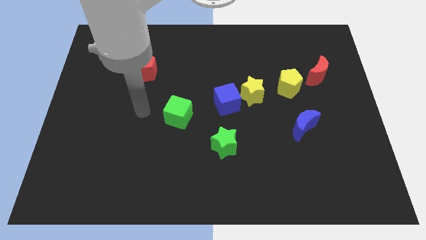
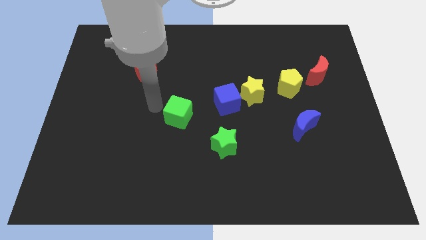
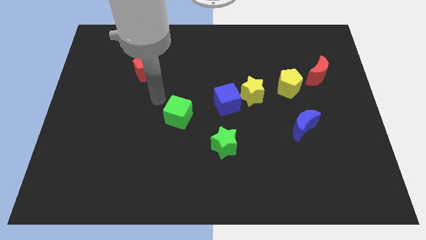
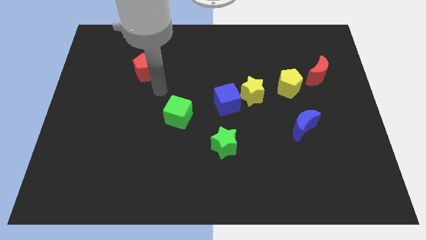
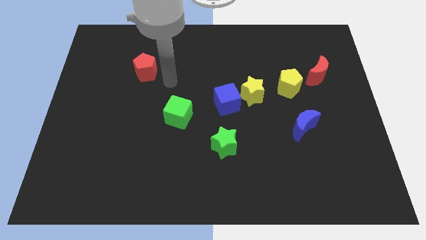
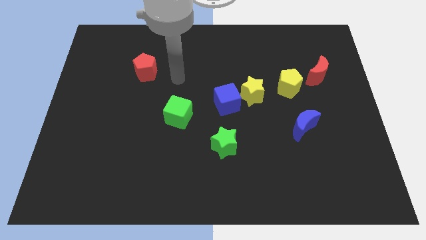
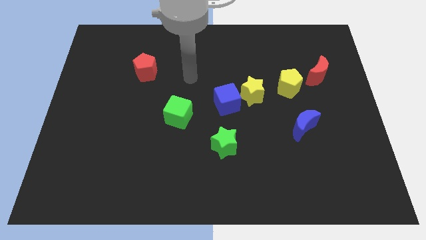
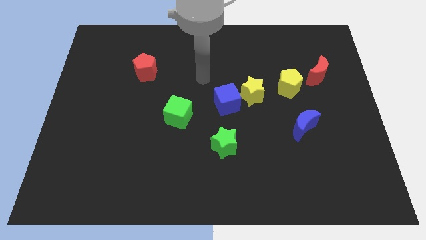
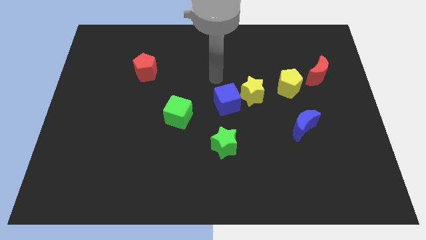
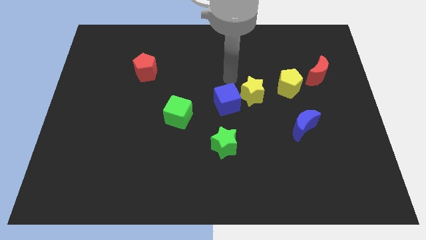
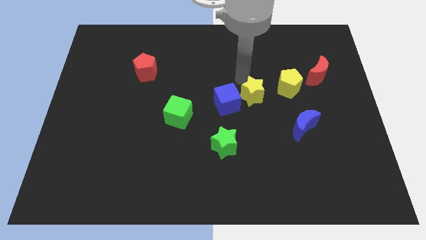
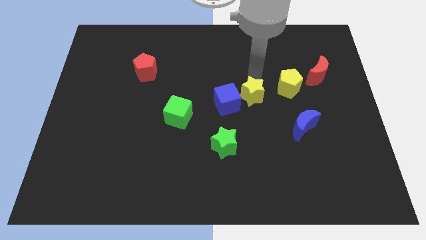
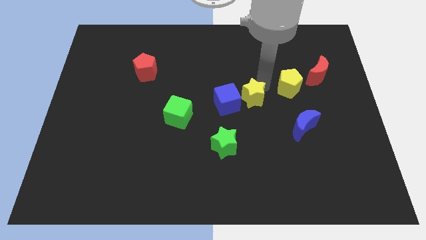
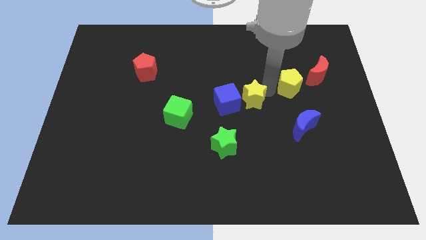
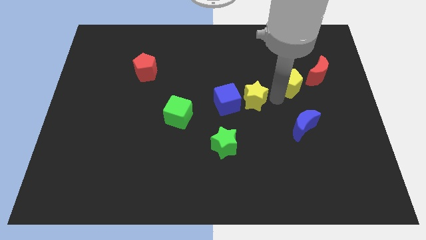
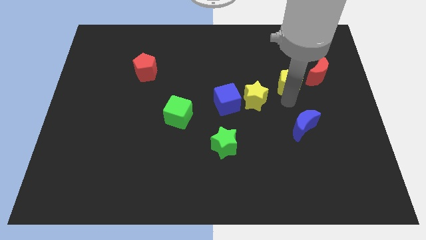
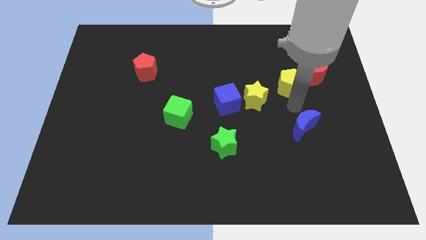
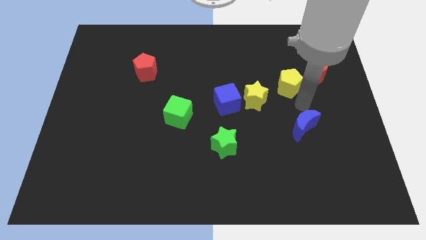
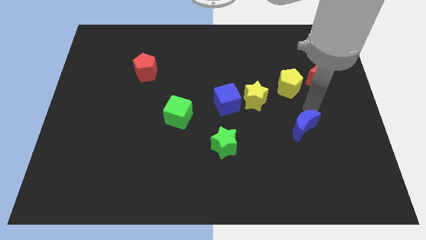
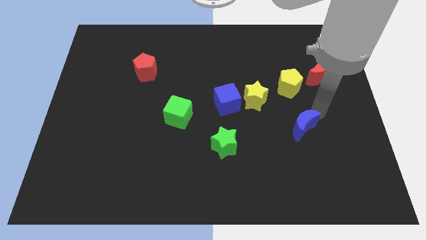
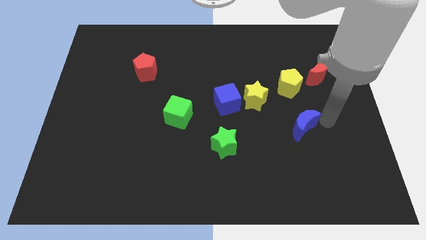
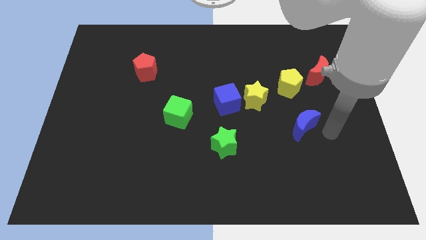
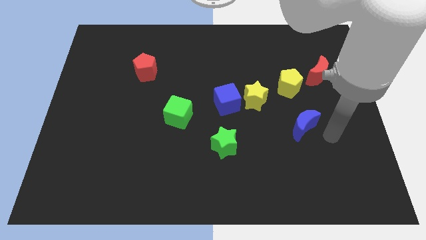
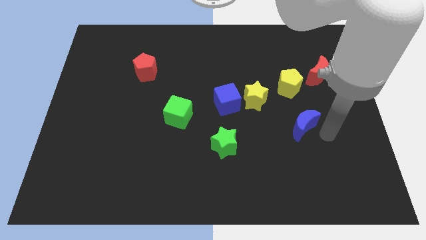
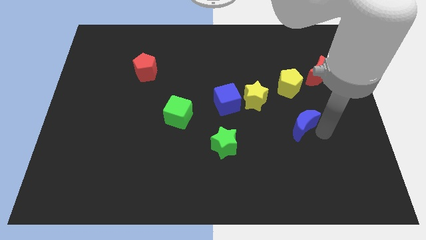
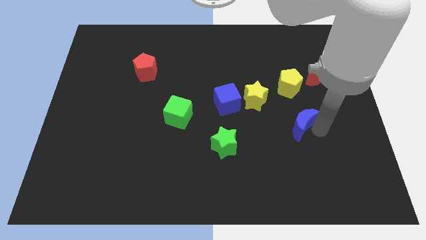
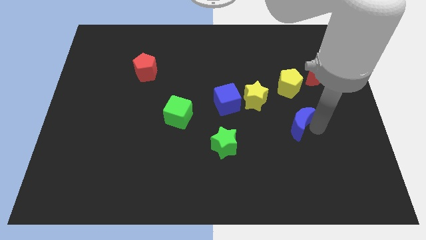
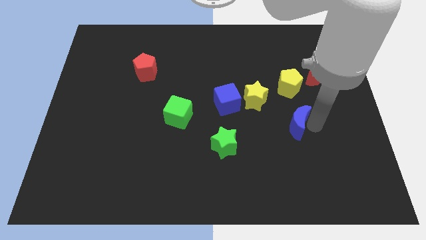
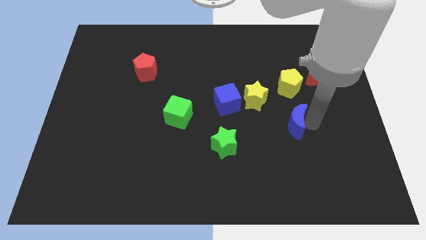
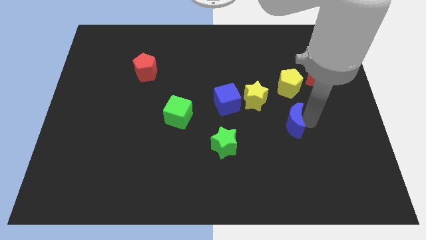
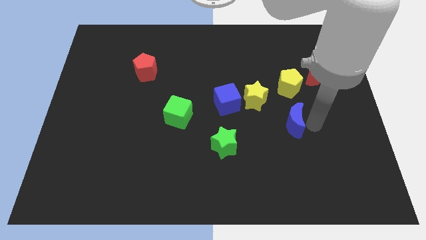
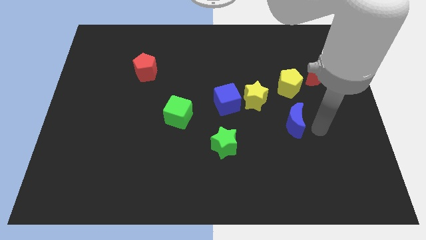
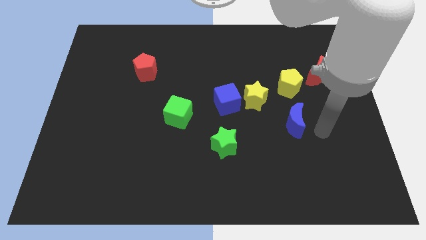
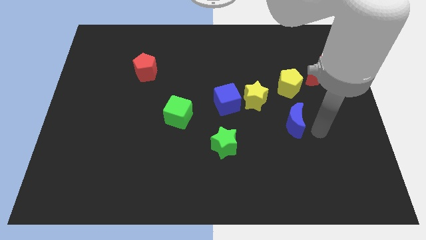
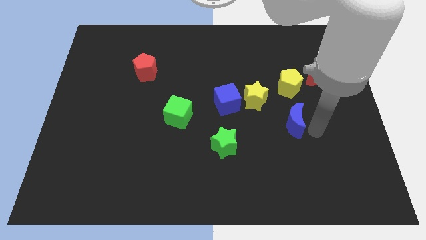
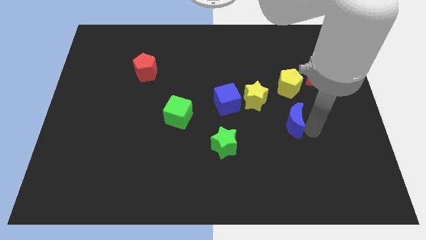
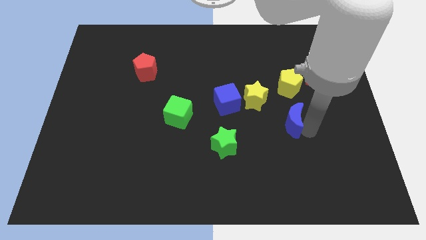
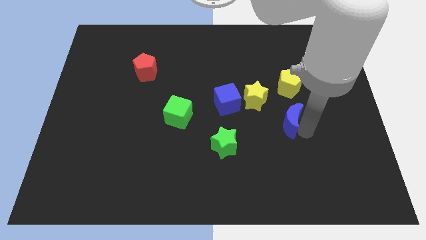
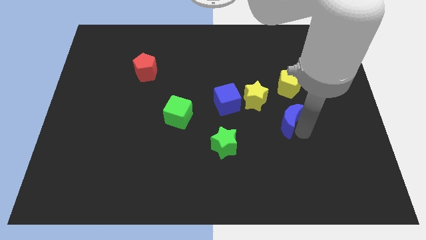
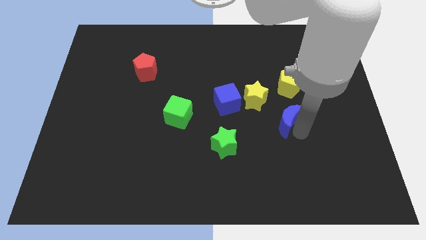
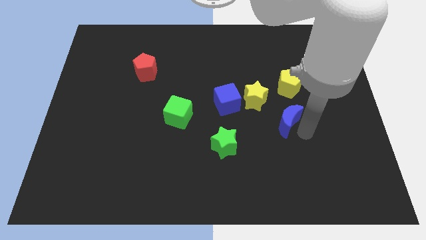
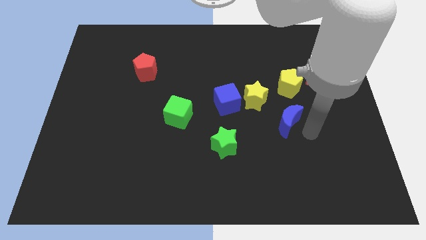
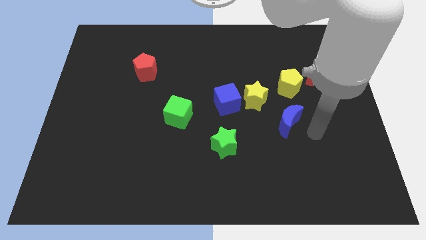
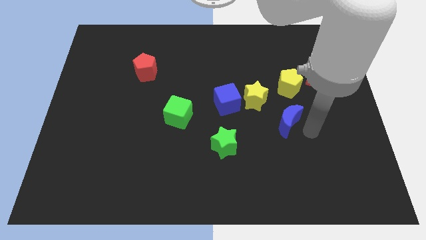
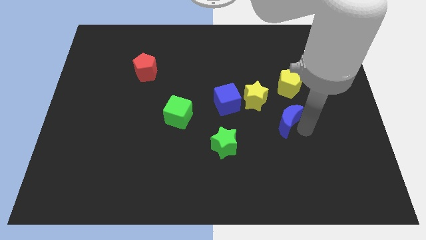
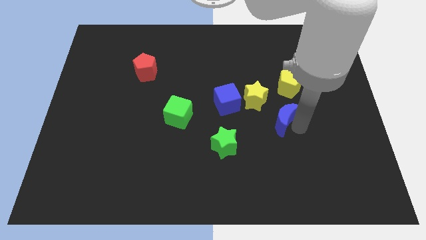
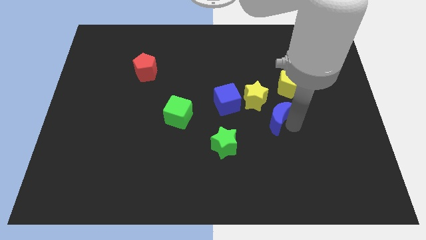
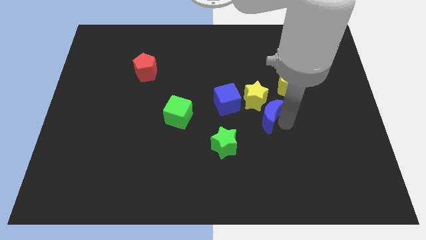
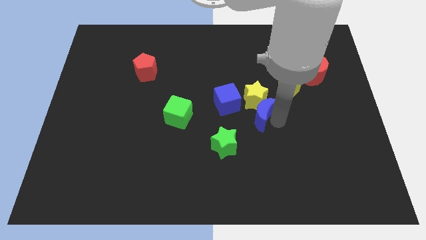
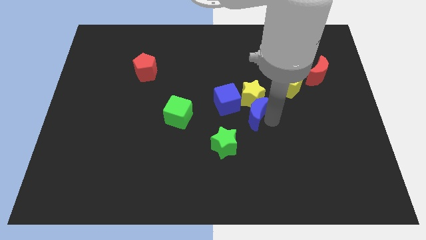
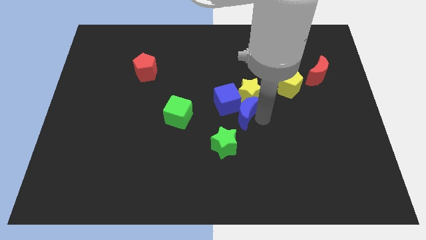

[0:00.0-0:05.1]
push the blue moon next to the blue cube

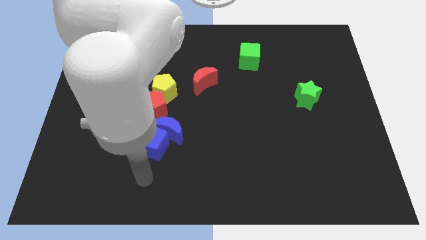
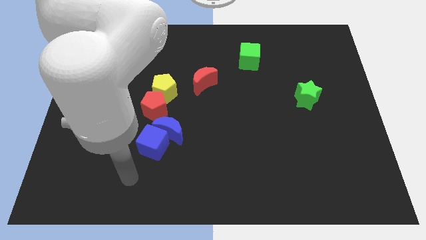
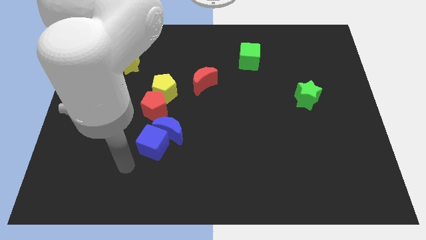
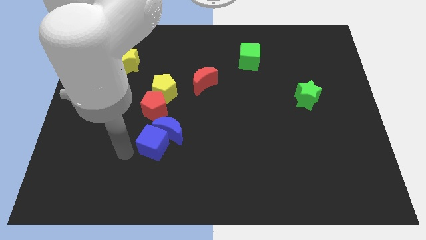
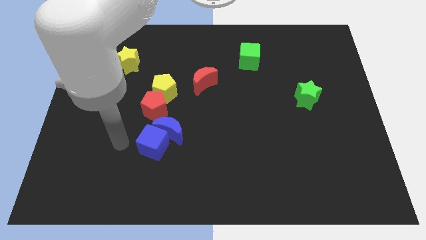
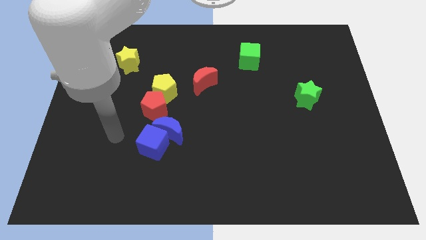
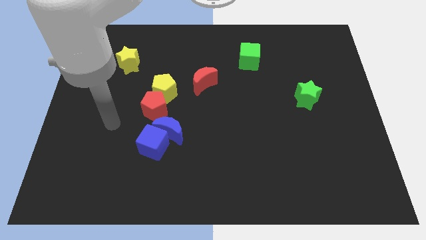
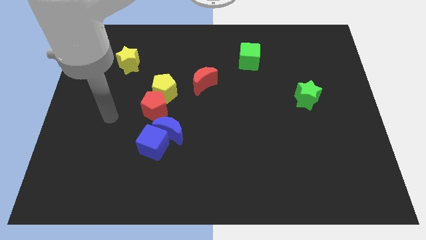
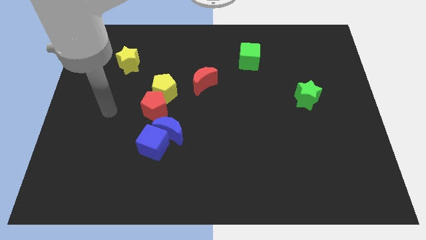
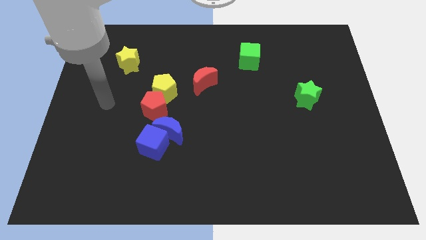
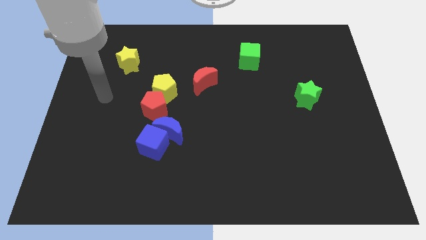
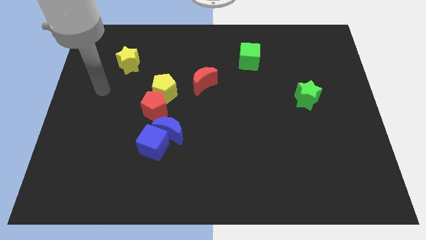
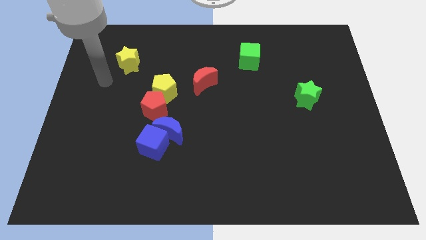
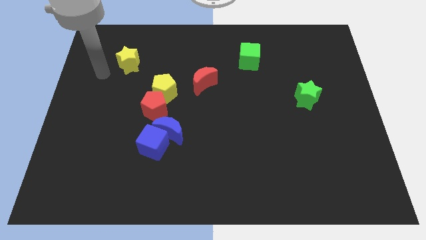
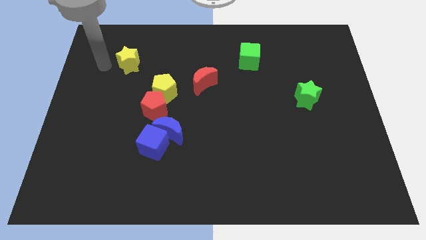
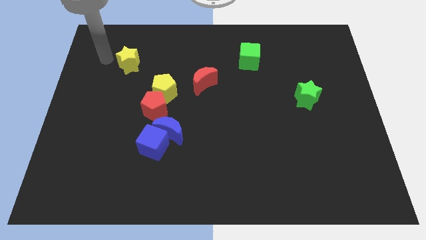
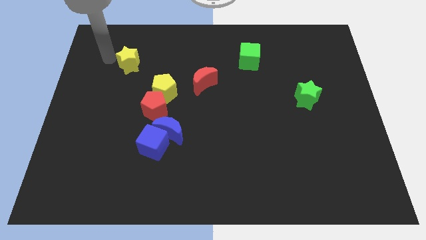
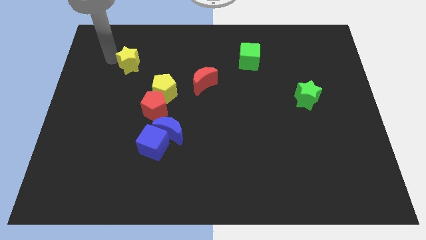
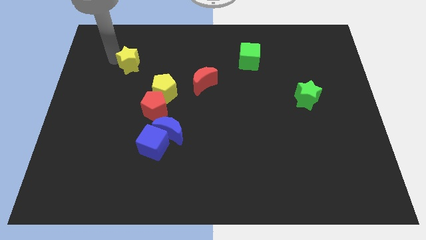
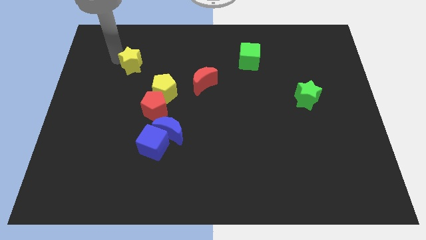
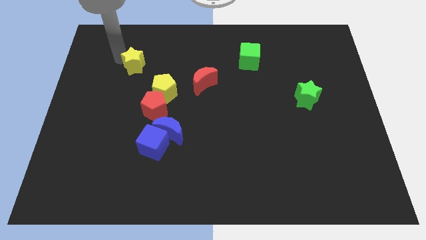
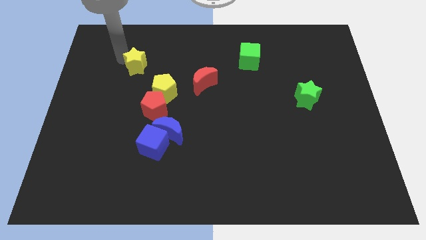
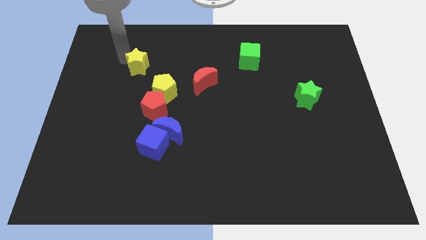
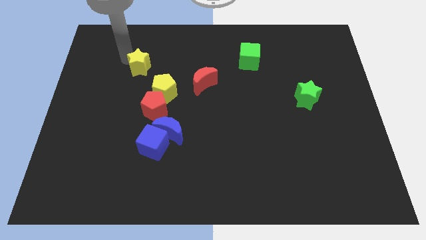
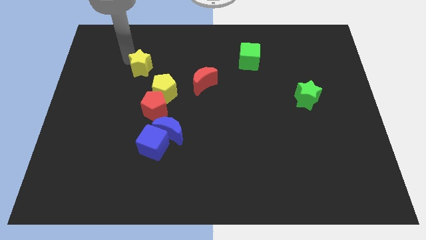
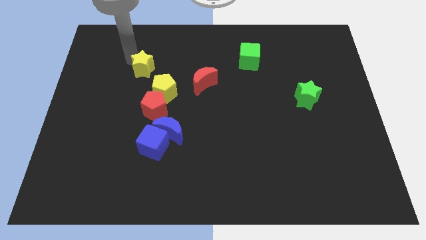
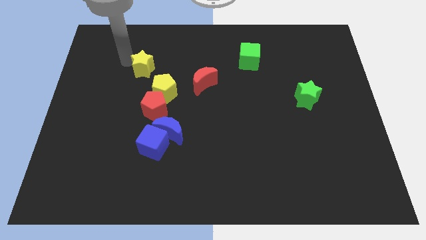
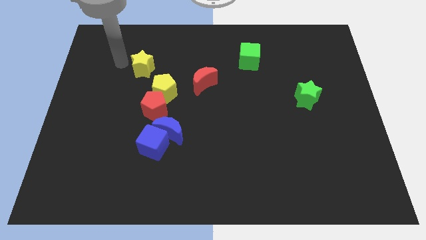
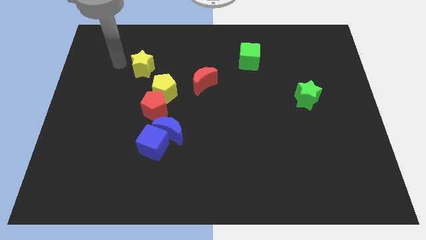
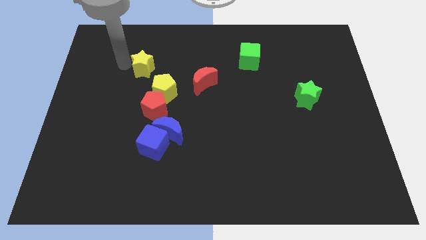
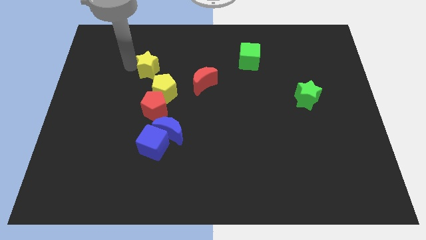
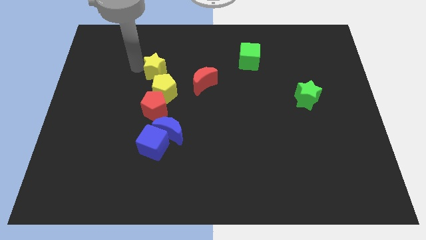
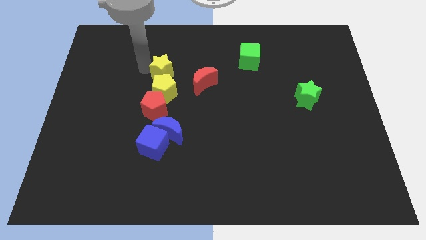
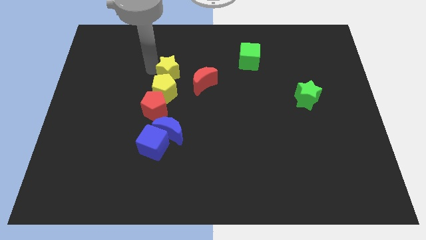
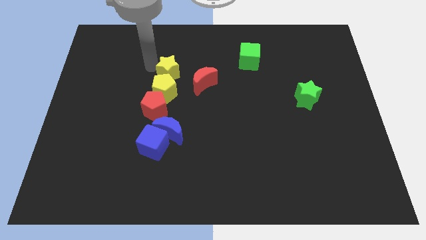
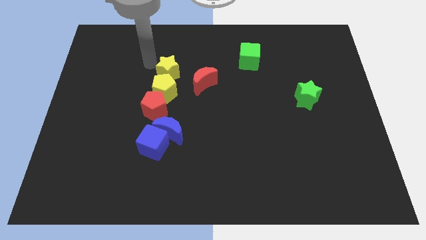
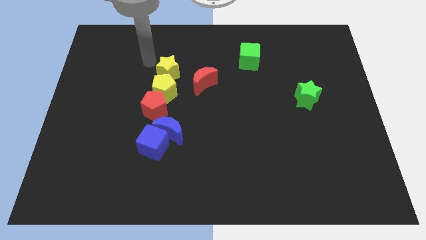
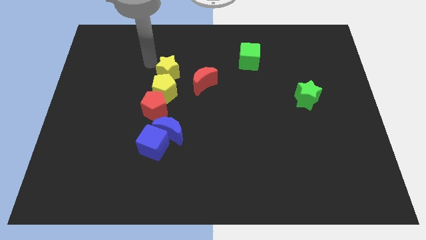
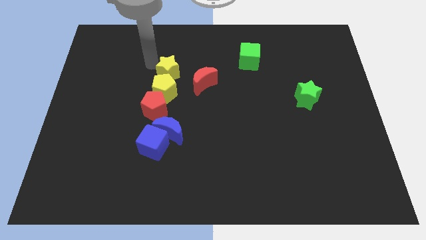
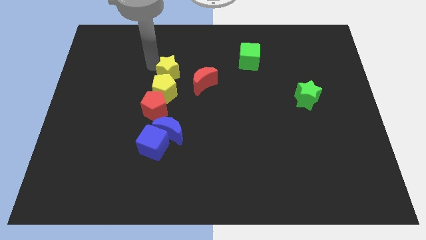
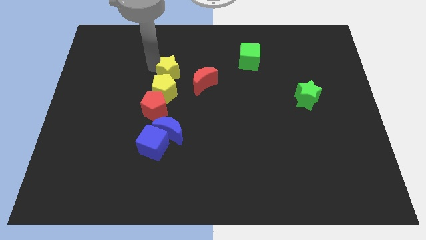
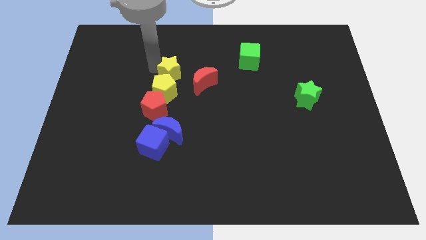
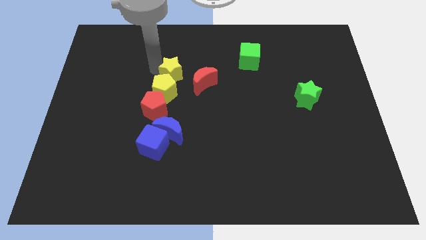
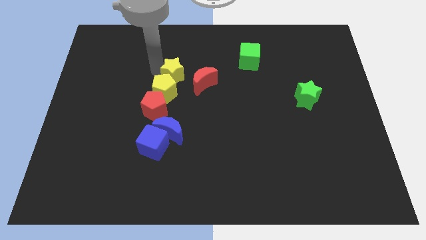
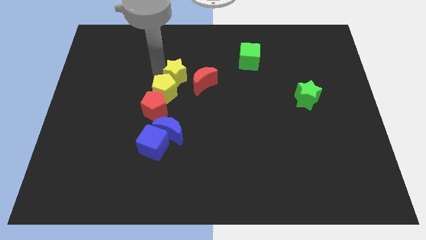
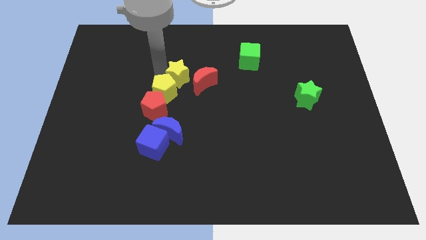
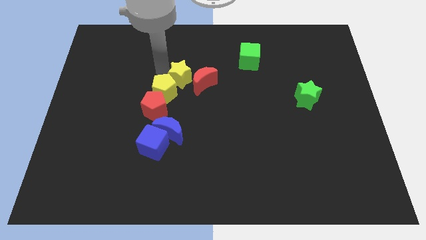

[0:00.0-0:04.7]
slide the yellow star close to the red moon
